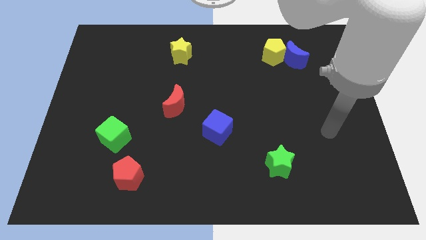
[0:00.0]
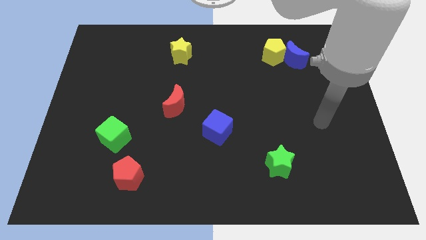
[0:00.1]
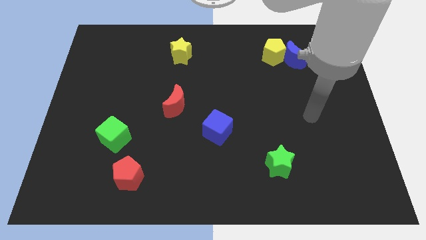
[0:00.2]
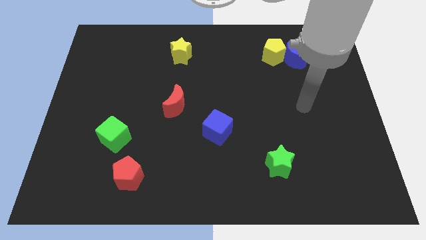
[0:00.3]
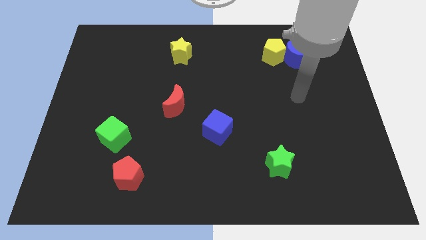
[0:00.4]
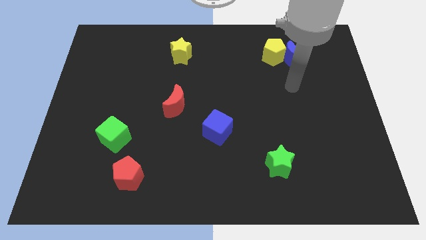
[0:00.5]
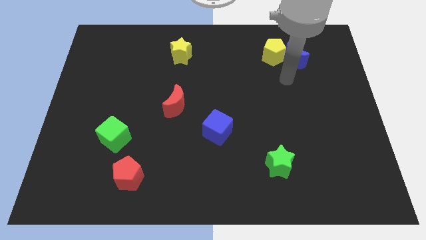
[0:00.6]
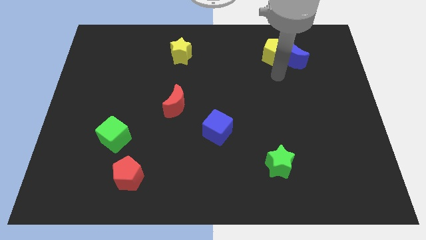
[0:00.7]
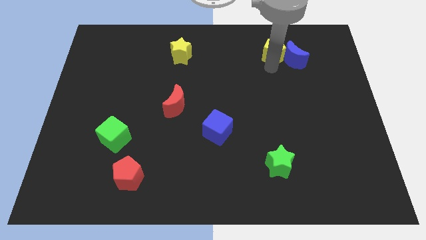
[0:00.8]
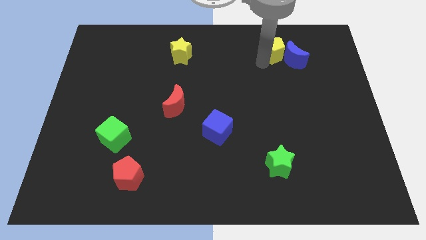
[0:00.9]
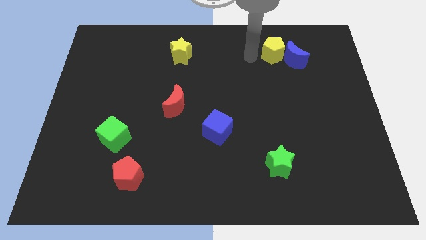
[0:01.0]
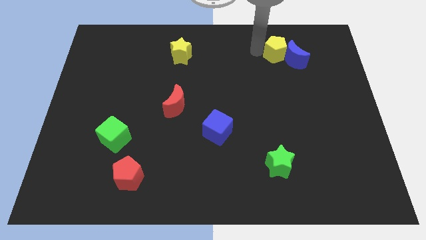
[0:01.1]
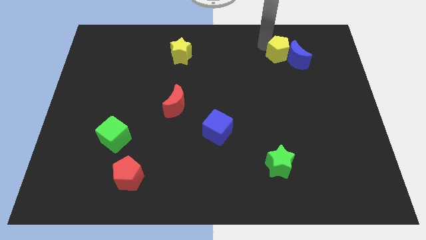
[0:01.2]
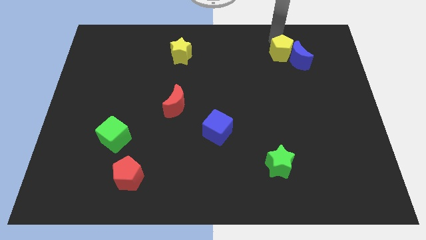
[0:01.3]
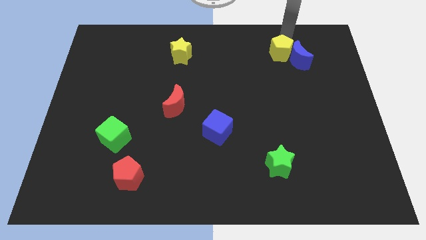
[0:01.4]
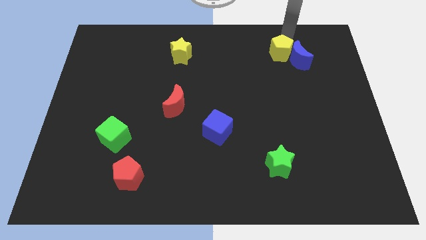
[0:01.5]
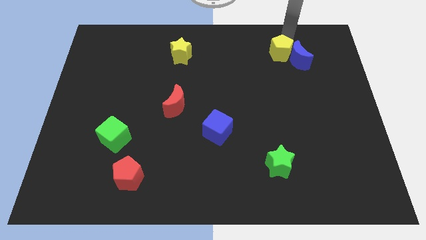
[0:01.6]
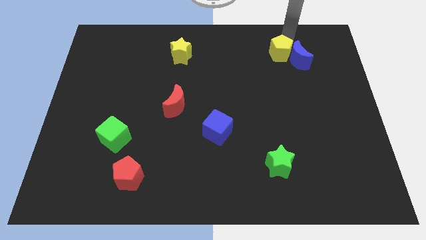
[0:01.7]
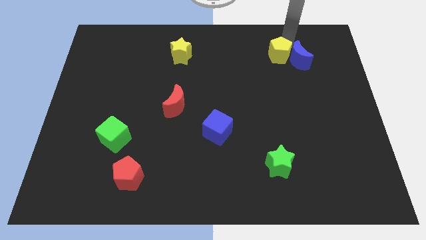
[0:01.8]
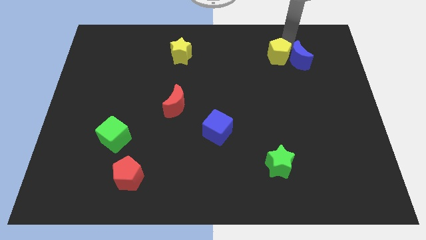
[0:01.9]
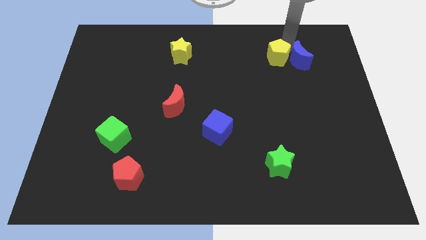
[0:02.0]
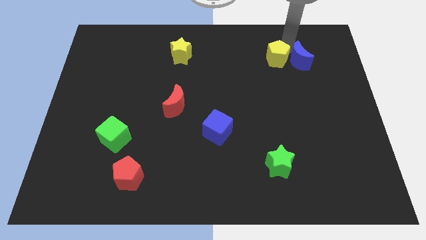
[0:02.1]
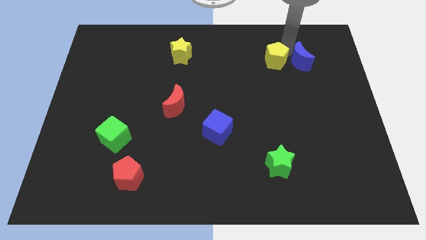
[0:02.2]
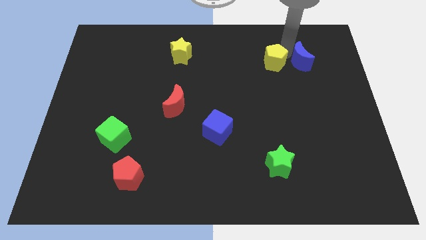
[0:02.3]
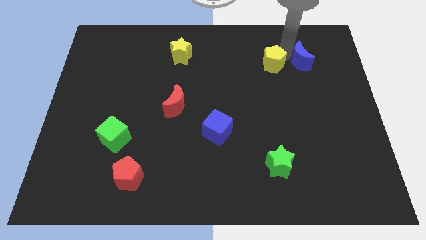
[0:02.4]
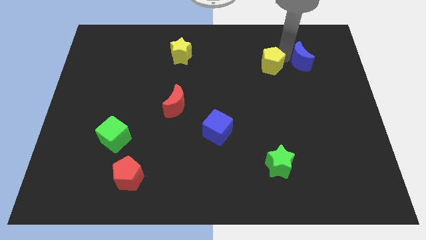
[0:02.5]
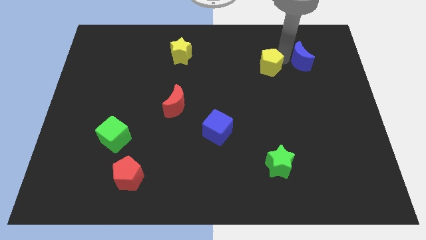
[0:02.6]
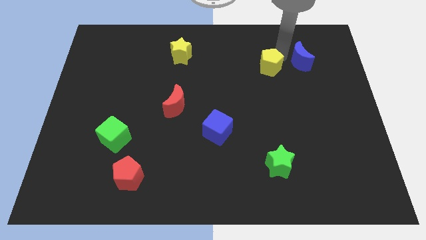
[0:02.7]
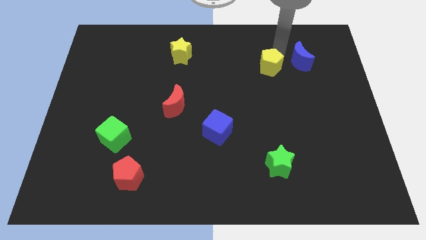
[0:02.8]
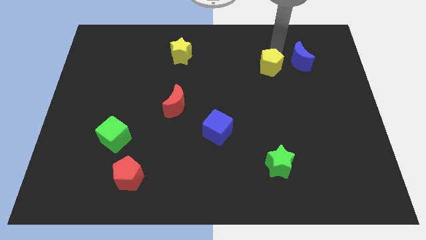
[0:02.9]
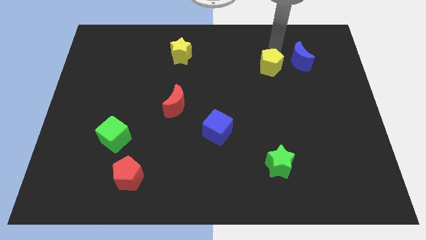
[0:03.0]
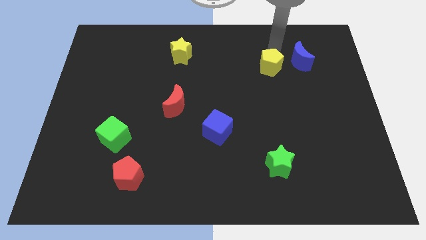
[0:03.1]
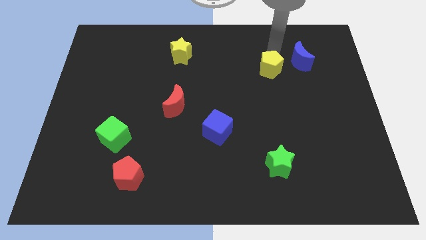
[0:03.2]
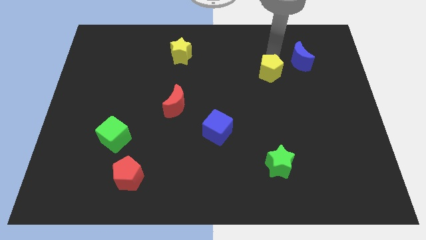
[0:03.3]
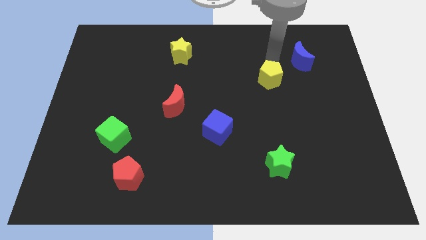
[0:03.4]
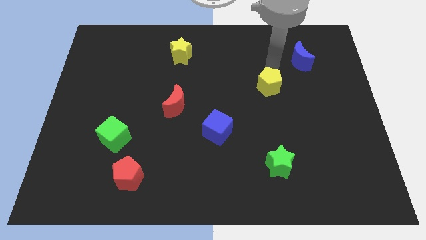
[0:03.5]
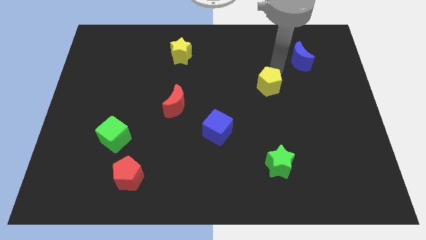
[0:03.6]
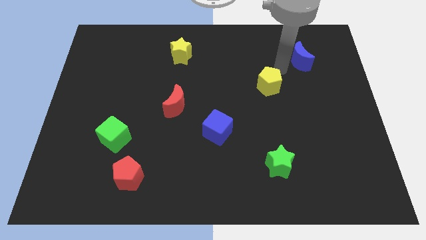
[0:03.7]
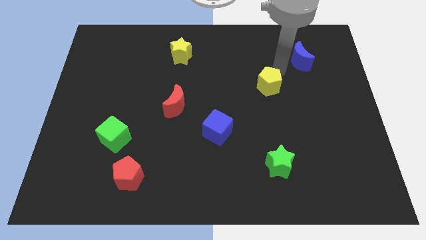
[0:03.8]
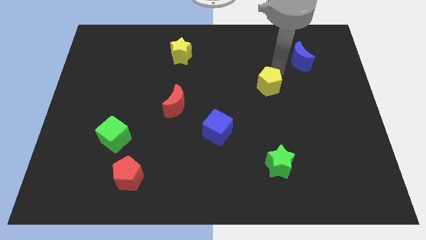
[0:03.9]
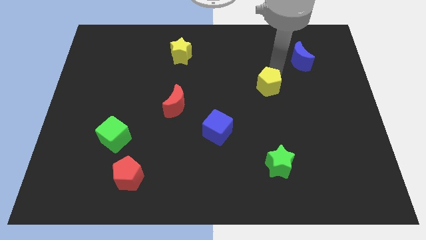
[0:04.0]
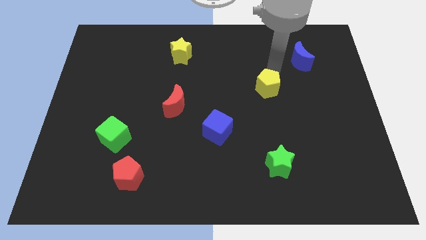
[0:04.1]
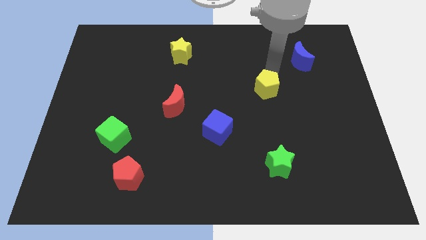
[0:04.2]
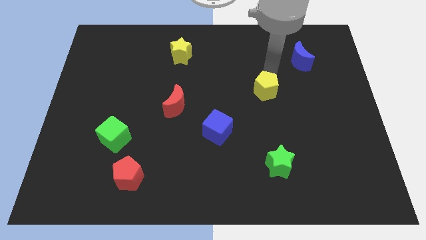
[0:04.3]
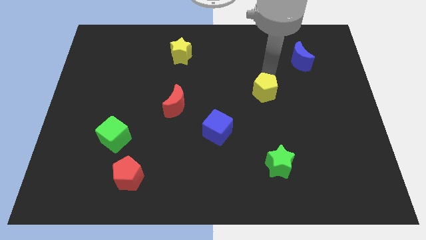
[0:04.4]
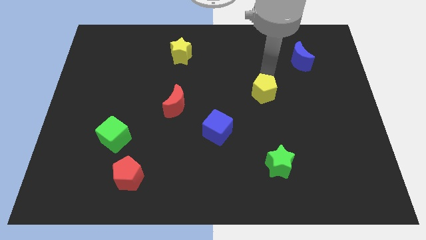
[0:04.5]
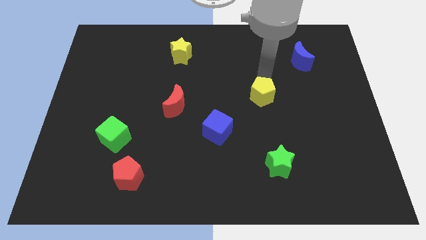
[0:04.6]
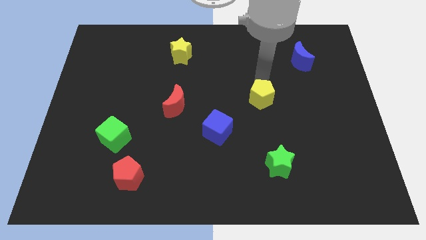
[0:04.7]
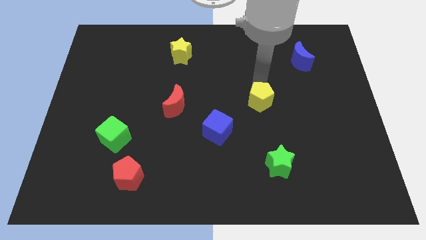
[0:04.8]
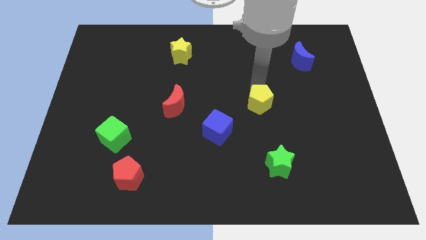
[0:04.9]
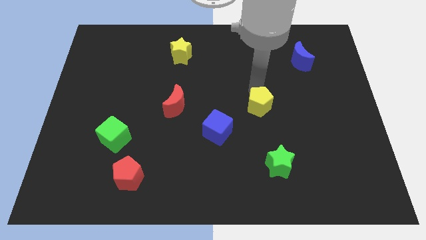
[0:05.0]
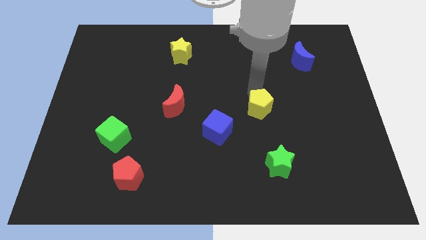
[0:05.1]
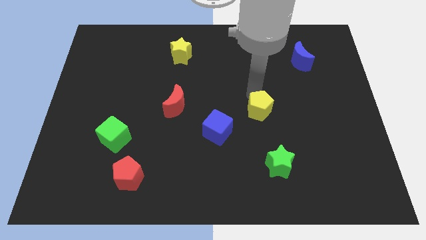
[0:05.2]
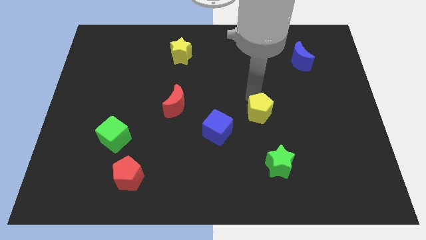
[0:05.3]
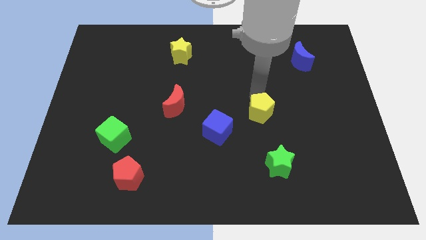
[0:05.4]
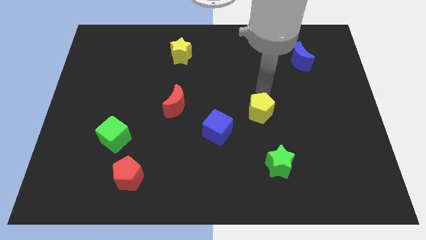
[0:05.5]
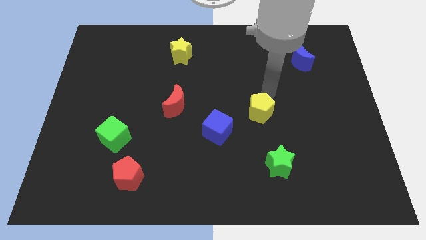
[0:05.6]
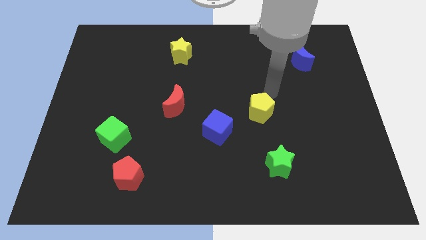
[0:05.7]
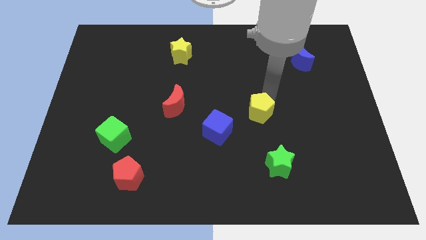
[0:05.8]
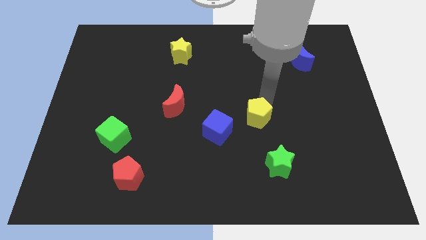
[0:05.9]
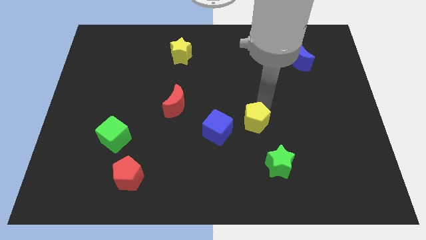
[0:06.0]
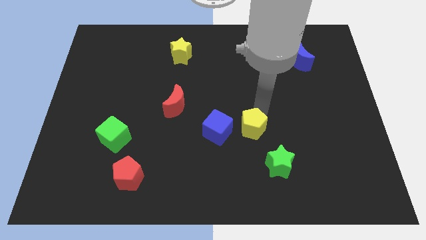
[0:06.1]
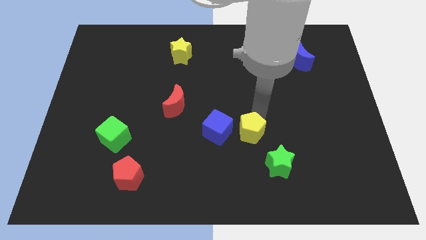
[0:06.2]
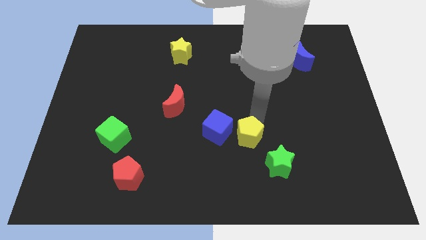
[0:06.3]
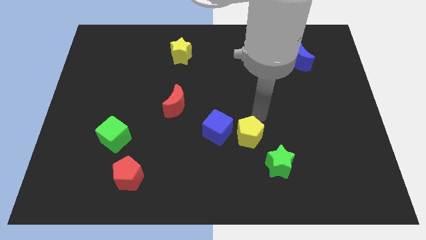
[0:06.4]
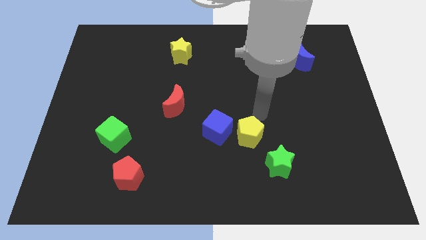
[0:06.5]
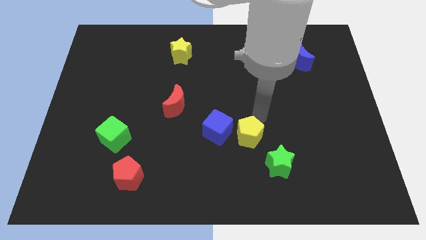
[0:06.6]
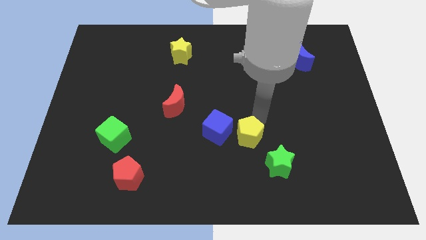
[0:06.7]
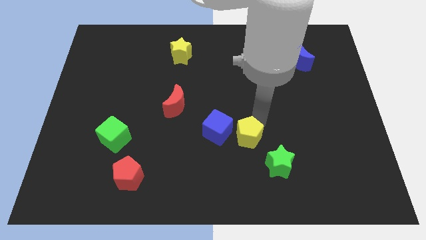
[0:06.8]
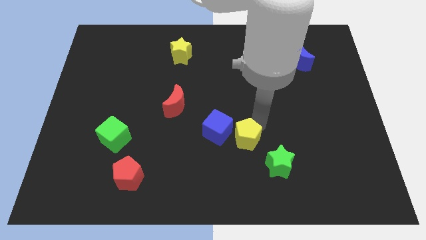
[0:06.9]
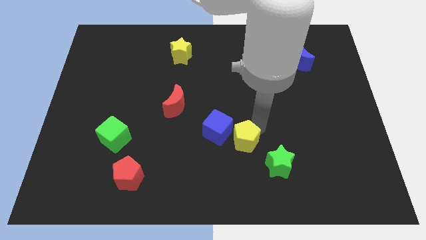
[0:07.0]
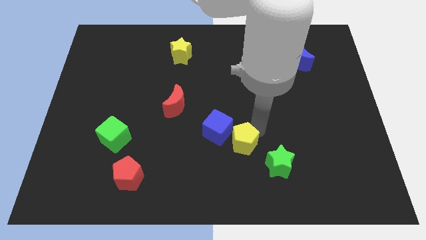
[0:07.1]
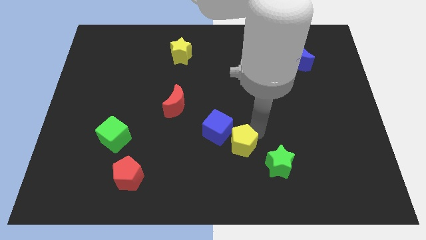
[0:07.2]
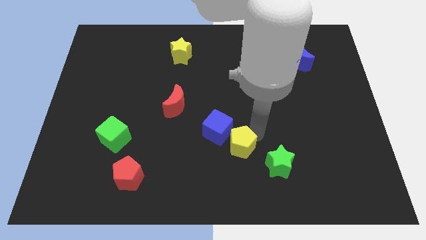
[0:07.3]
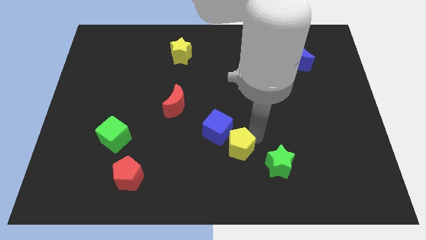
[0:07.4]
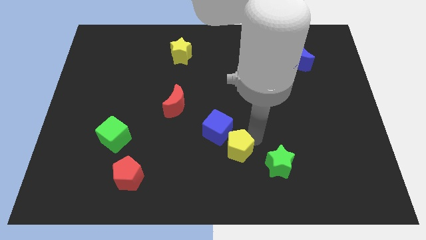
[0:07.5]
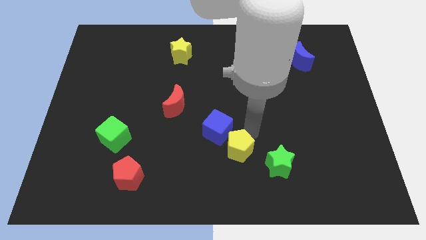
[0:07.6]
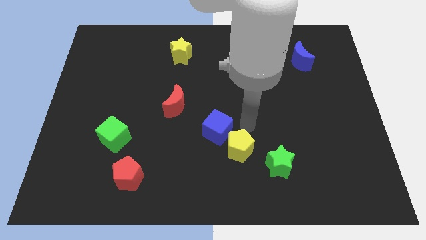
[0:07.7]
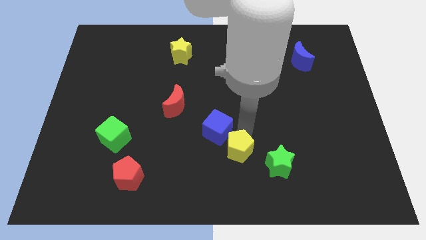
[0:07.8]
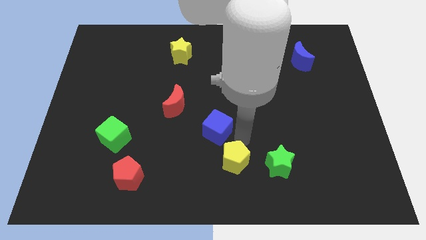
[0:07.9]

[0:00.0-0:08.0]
slide the yellow pentagon to the bottom side
